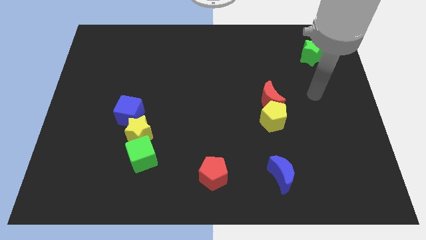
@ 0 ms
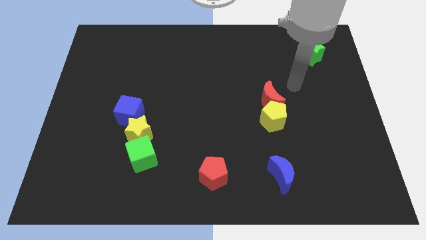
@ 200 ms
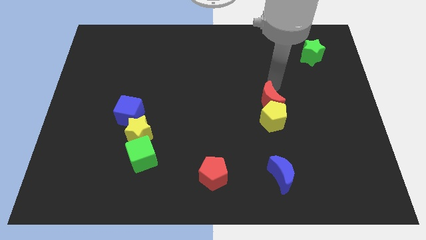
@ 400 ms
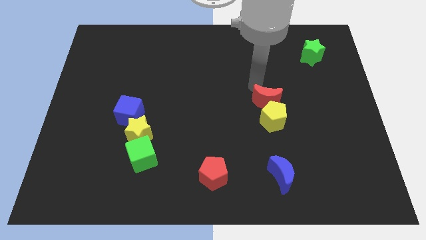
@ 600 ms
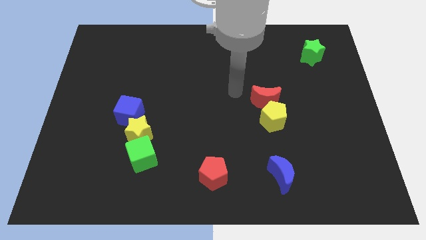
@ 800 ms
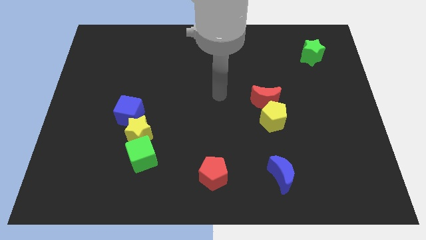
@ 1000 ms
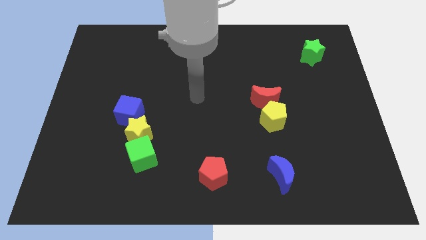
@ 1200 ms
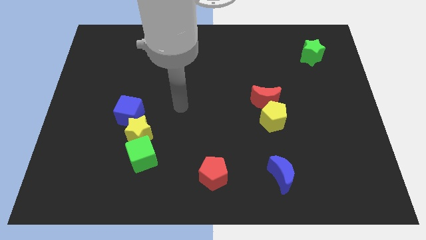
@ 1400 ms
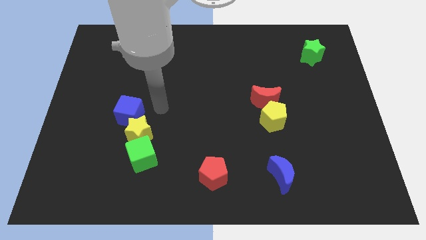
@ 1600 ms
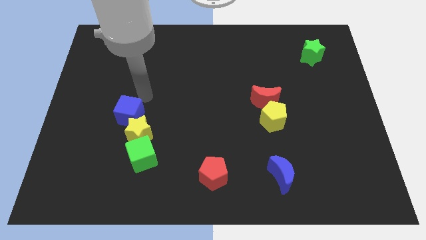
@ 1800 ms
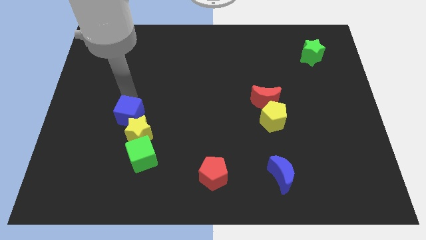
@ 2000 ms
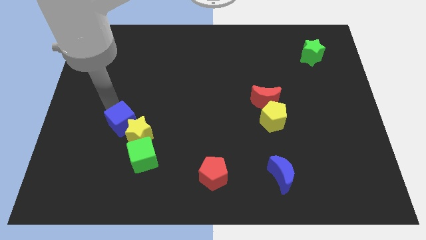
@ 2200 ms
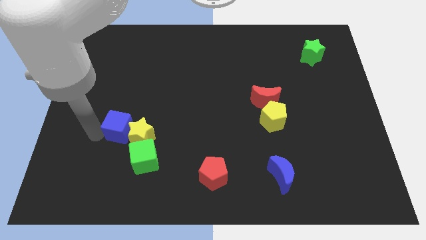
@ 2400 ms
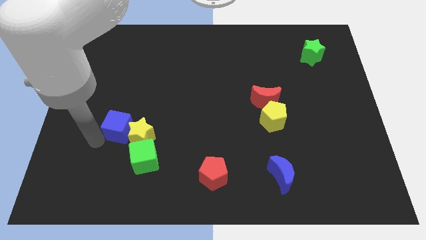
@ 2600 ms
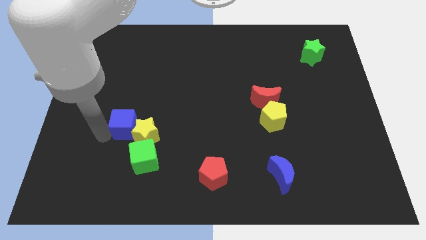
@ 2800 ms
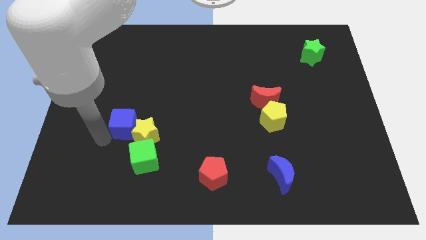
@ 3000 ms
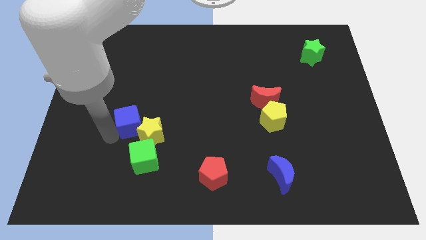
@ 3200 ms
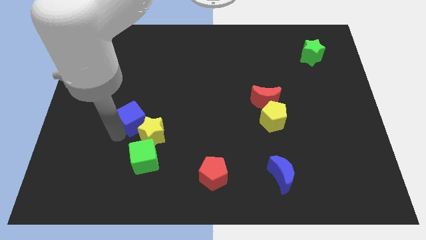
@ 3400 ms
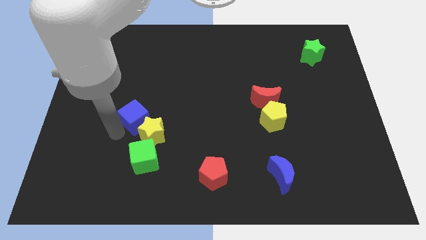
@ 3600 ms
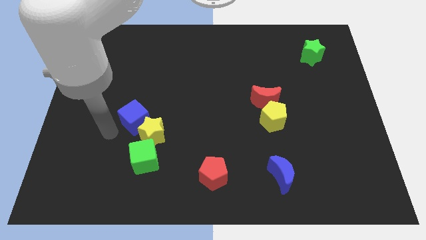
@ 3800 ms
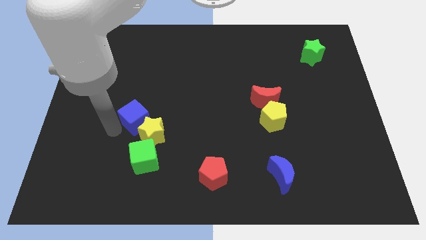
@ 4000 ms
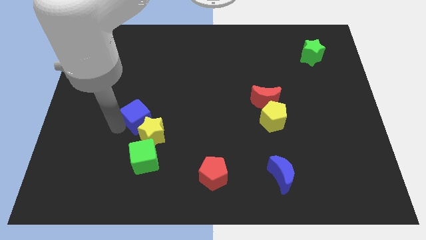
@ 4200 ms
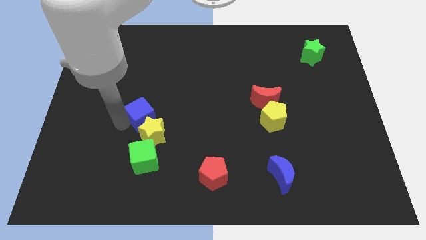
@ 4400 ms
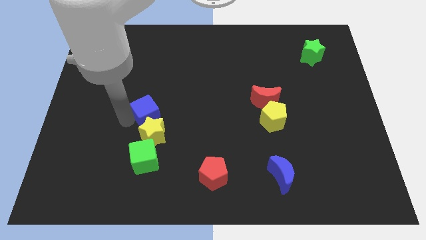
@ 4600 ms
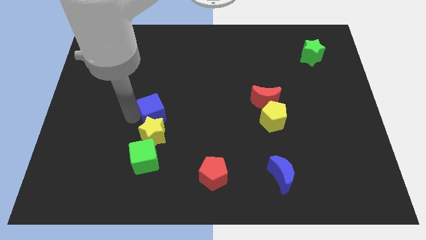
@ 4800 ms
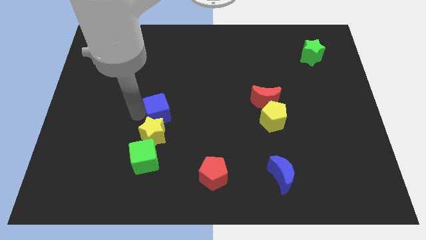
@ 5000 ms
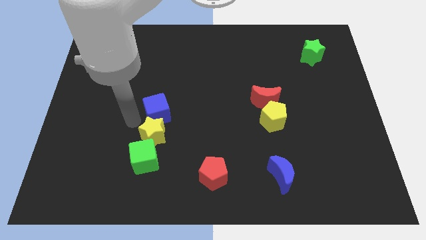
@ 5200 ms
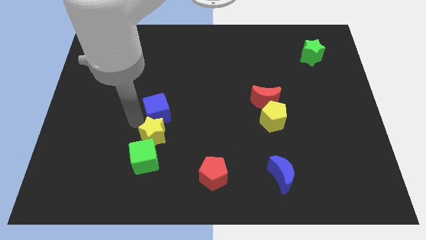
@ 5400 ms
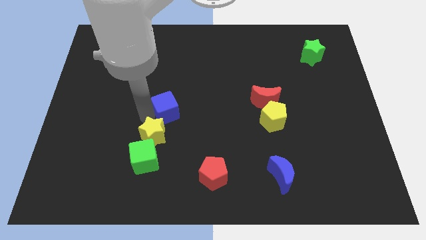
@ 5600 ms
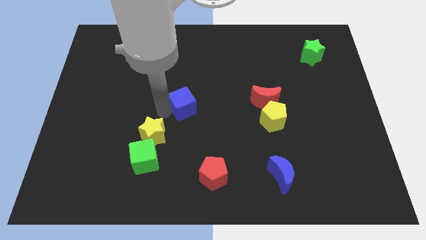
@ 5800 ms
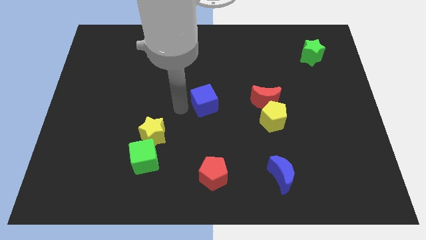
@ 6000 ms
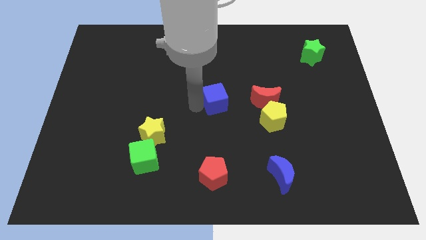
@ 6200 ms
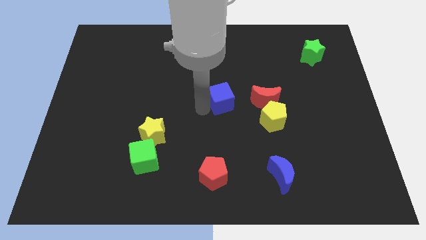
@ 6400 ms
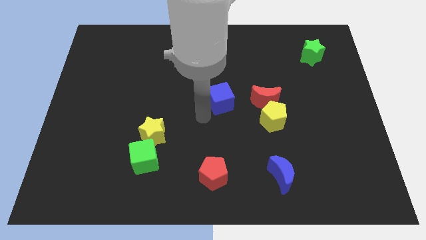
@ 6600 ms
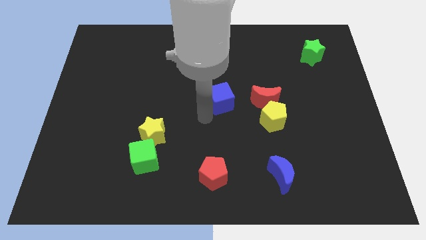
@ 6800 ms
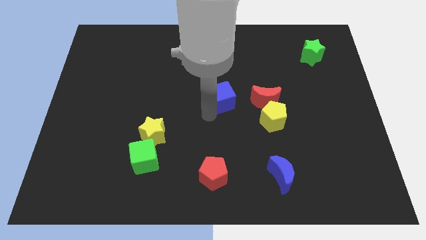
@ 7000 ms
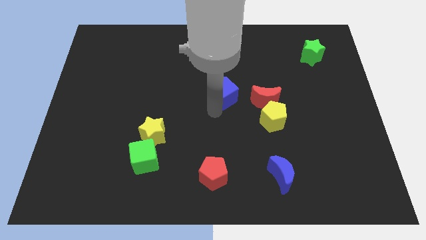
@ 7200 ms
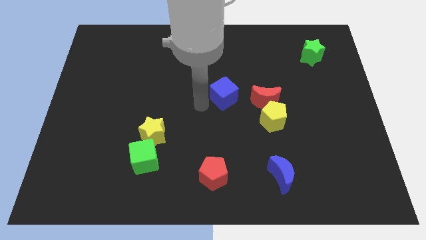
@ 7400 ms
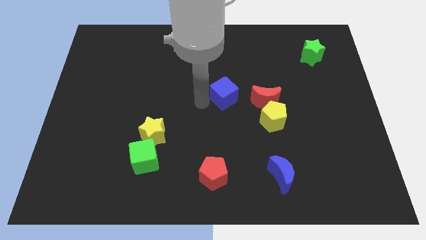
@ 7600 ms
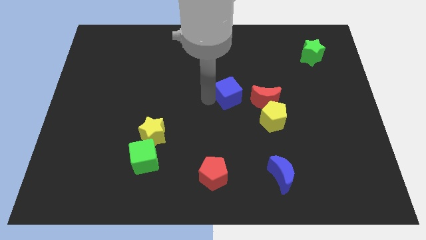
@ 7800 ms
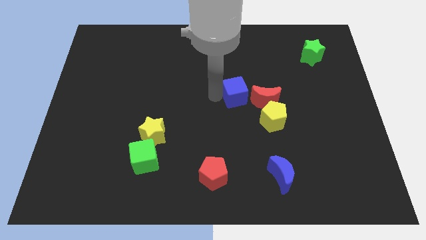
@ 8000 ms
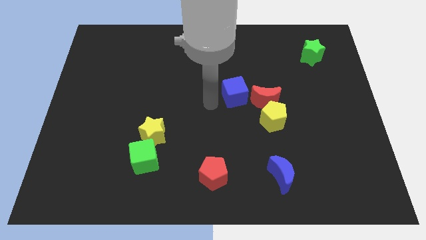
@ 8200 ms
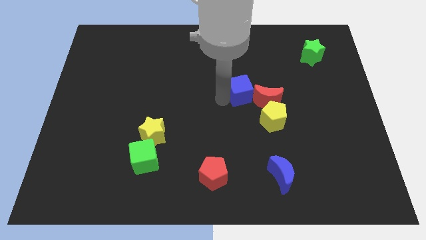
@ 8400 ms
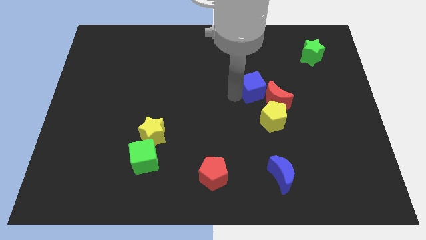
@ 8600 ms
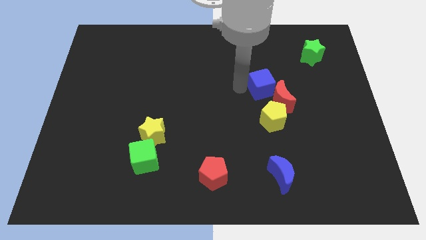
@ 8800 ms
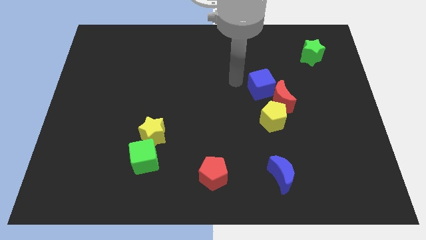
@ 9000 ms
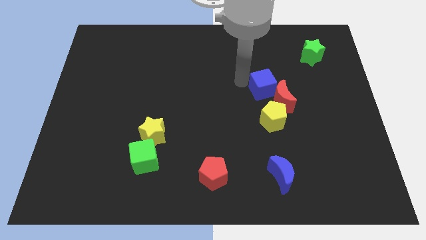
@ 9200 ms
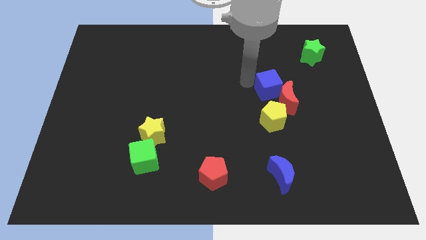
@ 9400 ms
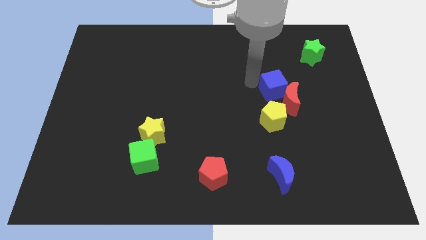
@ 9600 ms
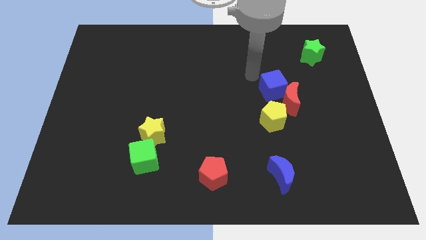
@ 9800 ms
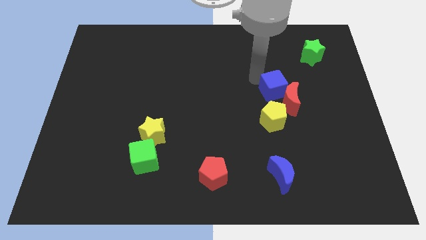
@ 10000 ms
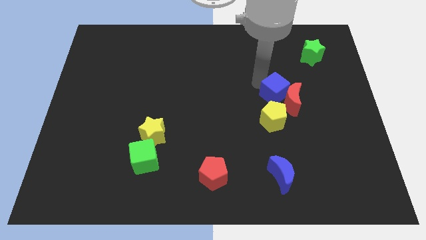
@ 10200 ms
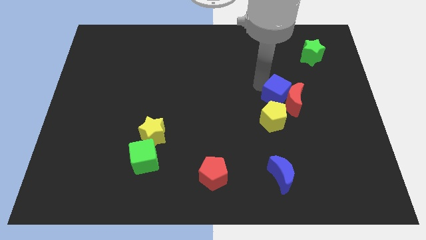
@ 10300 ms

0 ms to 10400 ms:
move the blue cube diagonally up and to the right of the yellow pentagon

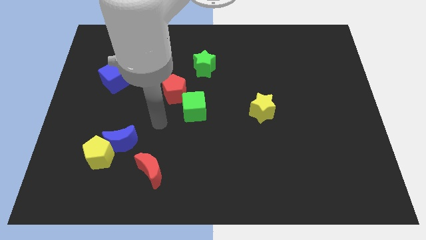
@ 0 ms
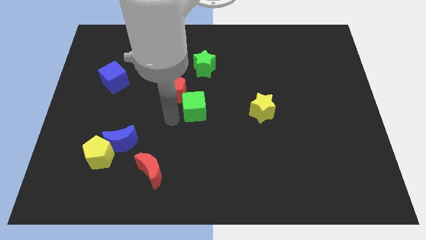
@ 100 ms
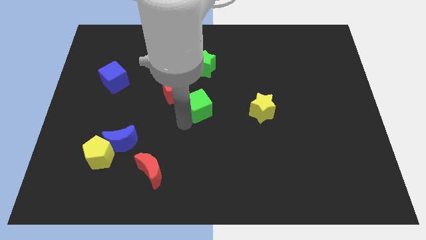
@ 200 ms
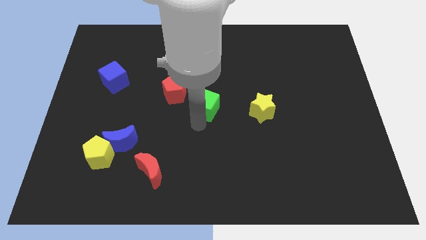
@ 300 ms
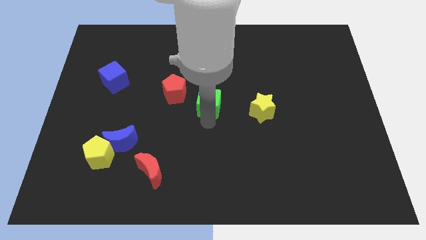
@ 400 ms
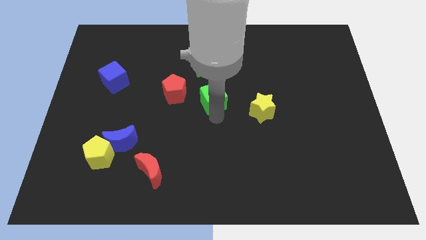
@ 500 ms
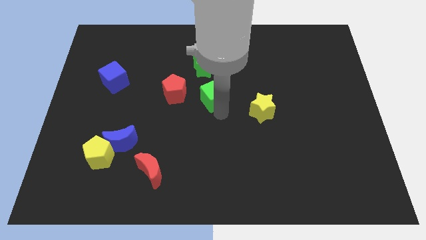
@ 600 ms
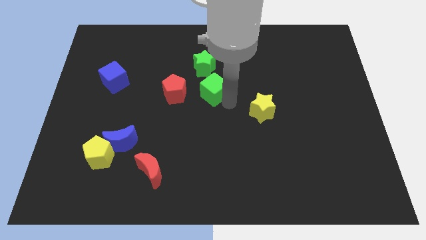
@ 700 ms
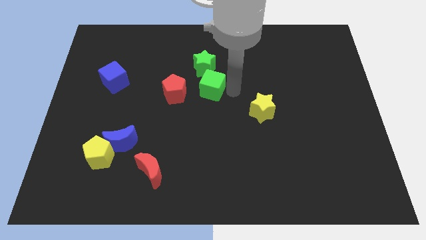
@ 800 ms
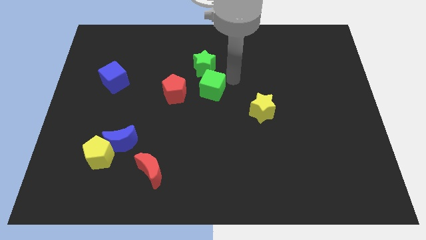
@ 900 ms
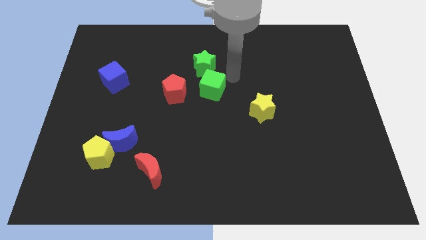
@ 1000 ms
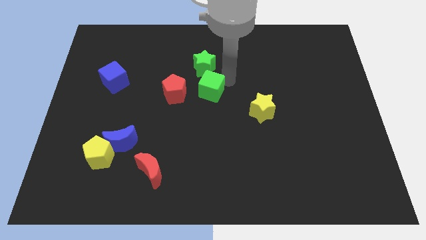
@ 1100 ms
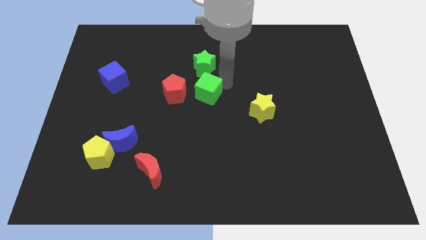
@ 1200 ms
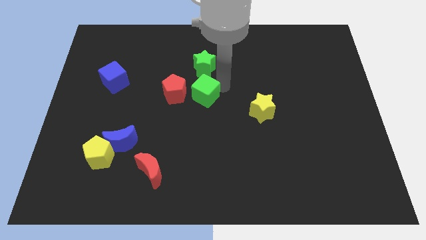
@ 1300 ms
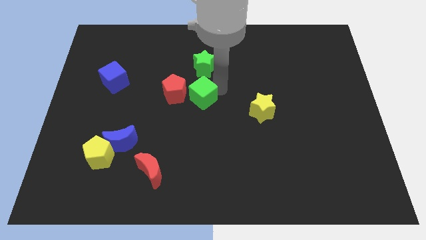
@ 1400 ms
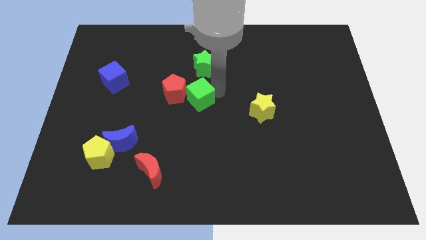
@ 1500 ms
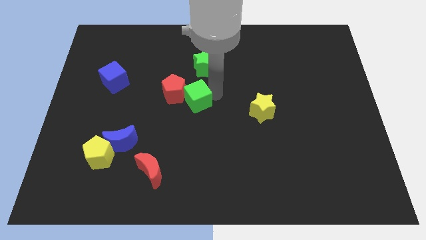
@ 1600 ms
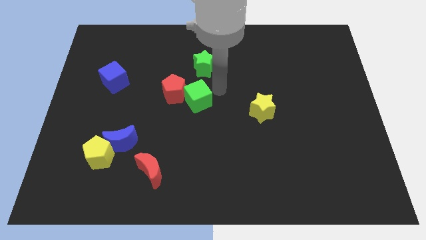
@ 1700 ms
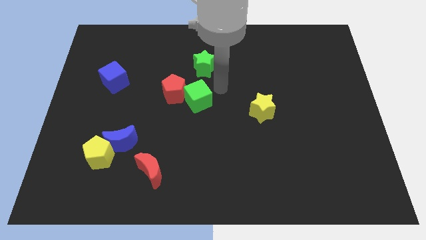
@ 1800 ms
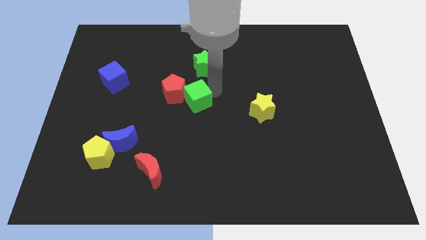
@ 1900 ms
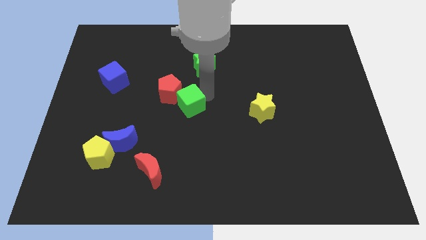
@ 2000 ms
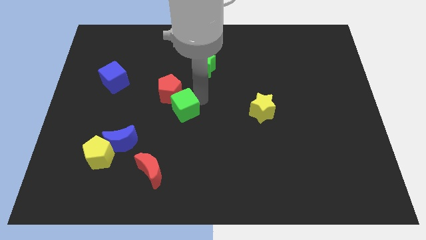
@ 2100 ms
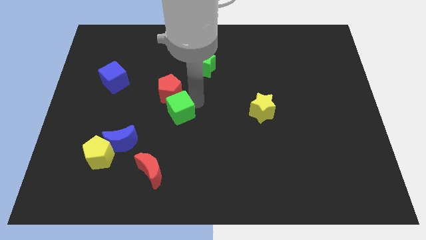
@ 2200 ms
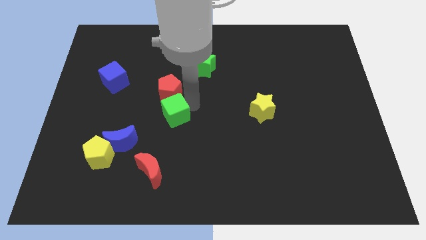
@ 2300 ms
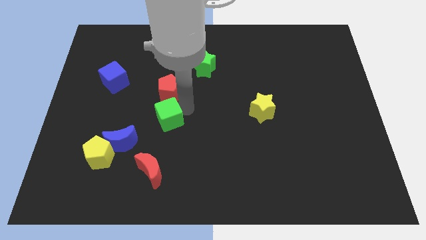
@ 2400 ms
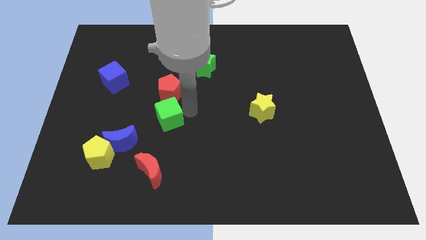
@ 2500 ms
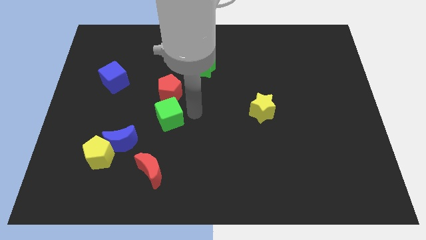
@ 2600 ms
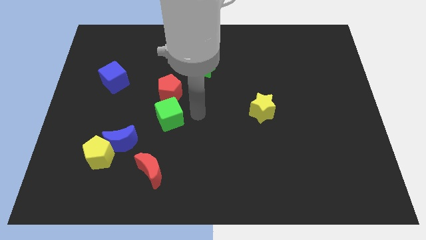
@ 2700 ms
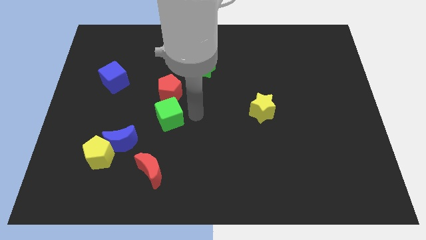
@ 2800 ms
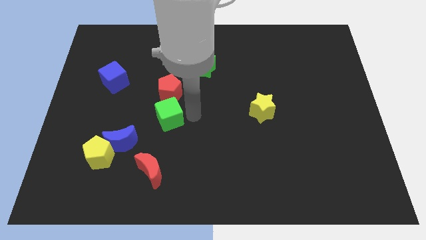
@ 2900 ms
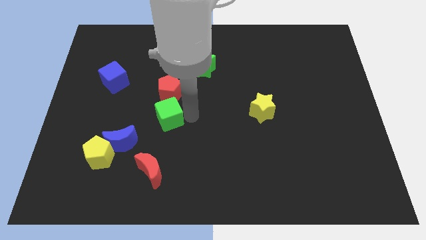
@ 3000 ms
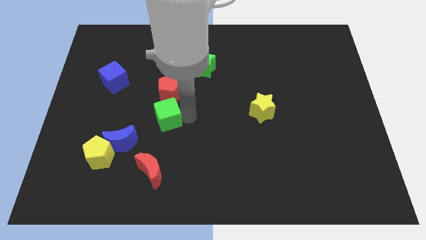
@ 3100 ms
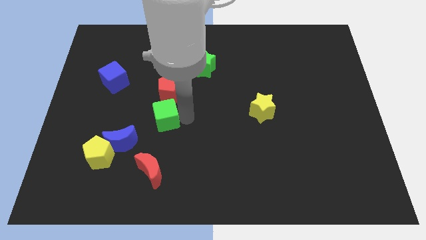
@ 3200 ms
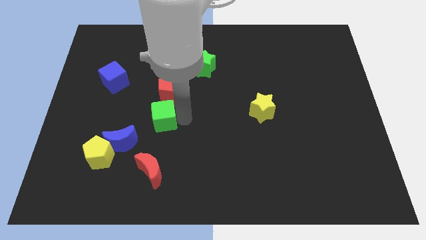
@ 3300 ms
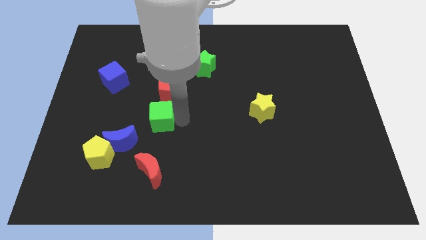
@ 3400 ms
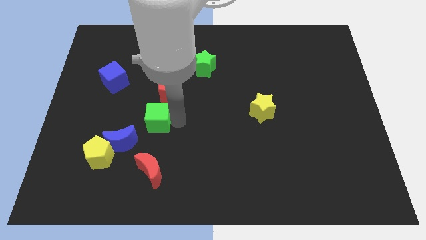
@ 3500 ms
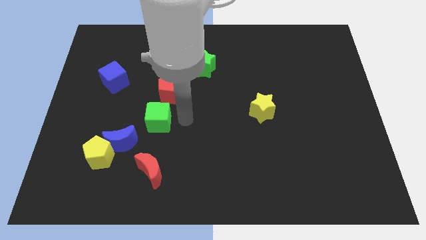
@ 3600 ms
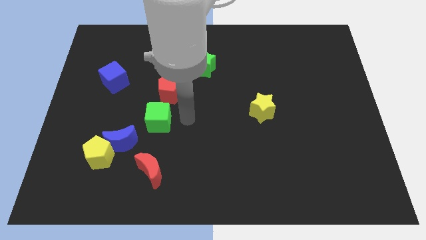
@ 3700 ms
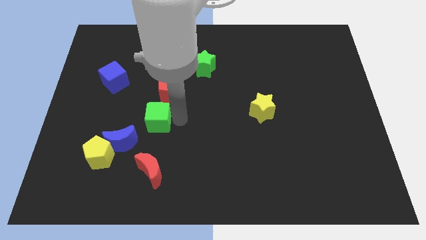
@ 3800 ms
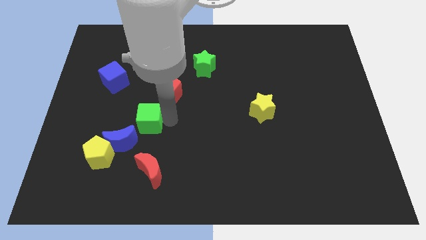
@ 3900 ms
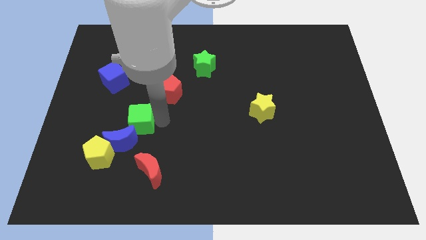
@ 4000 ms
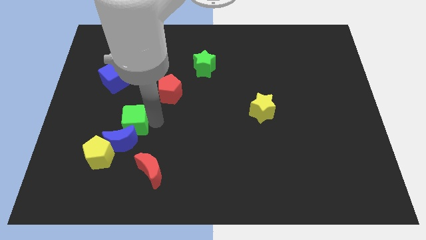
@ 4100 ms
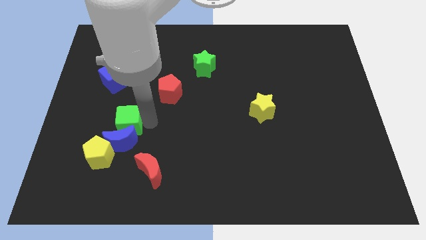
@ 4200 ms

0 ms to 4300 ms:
slide the green cube to the top left of the blue moon
